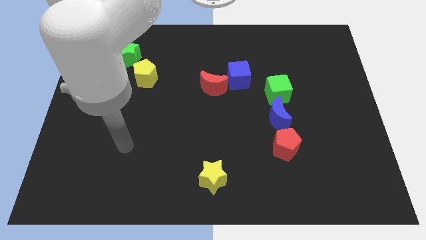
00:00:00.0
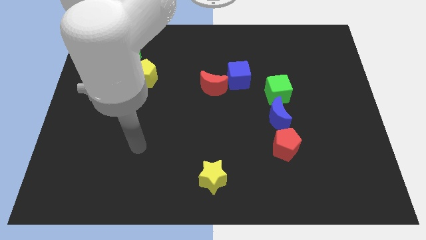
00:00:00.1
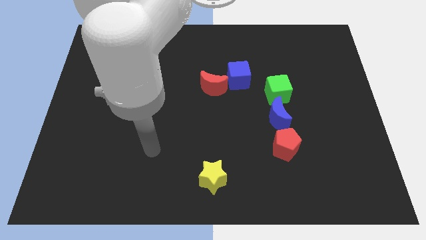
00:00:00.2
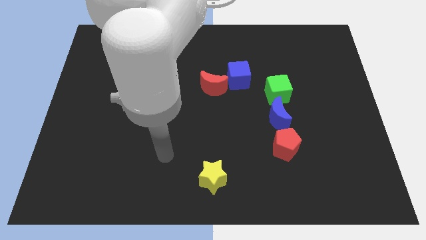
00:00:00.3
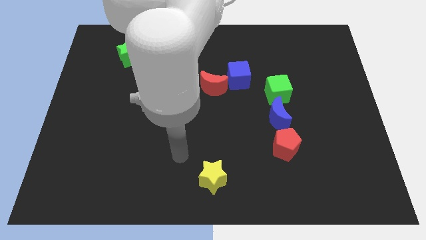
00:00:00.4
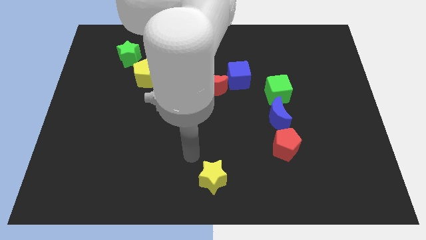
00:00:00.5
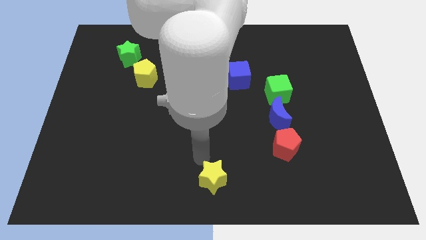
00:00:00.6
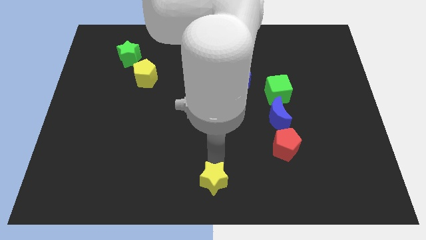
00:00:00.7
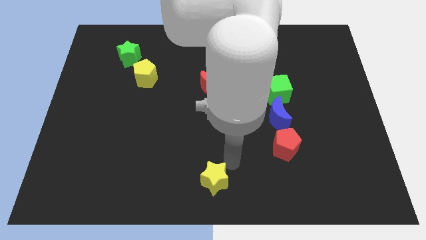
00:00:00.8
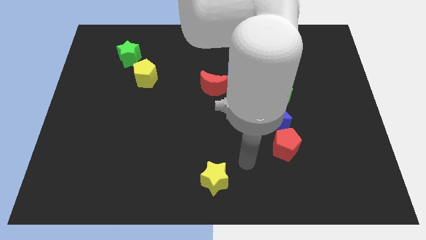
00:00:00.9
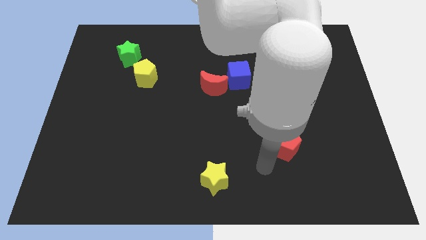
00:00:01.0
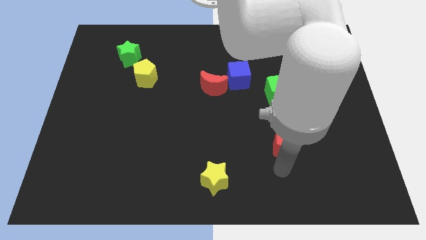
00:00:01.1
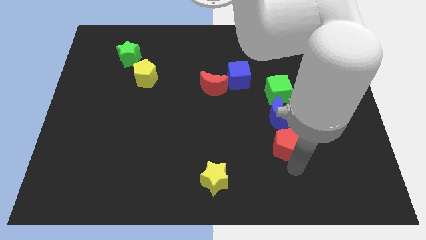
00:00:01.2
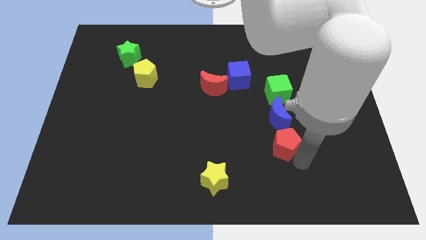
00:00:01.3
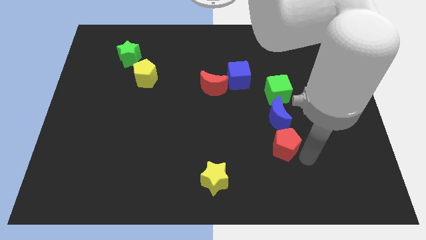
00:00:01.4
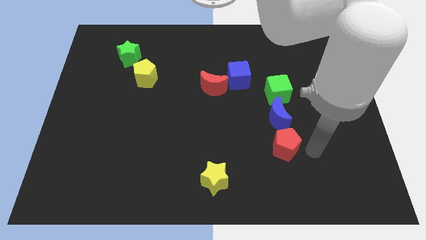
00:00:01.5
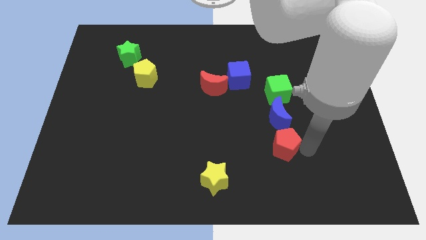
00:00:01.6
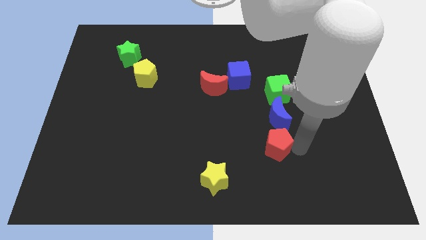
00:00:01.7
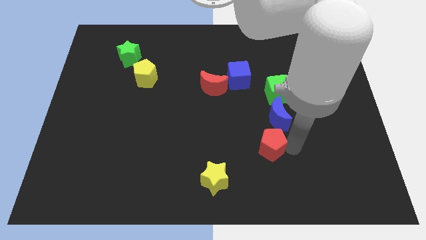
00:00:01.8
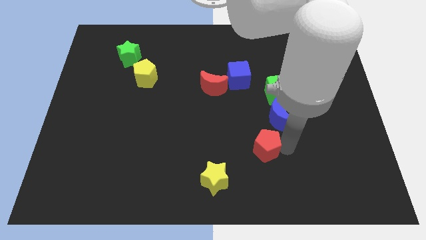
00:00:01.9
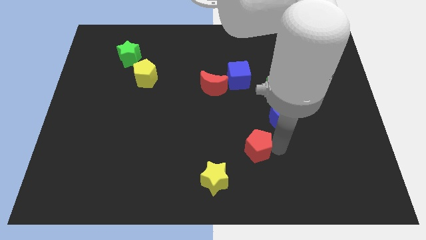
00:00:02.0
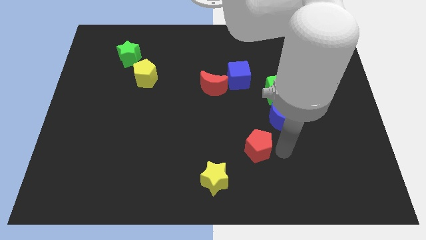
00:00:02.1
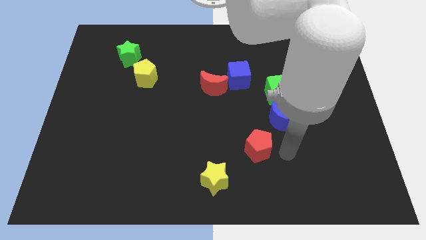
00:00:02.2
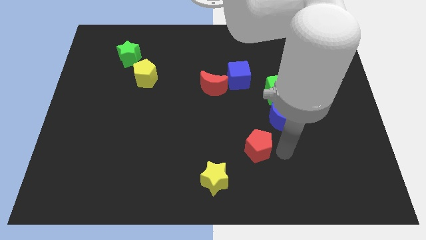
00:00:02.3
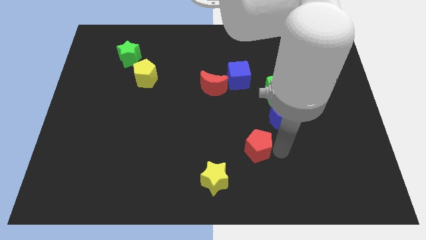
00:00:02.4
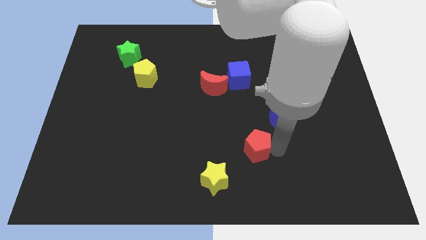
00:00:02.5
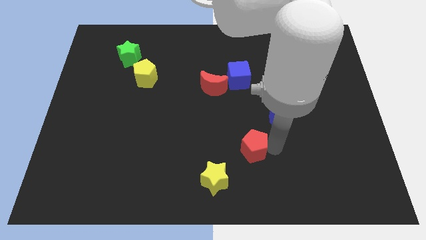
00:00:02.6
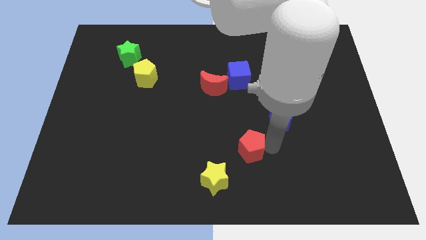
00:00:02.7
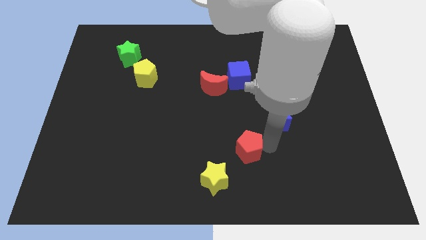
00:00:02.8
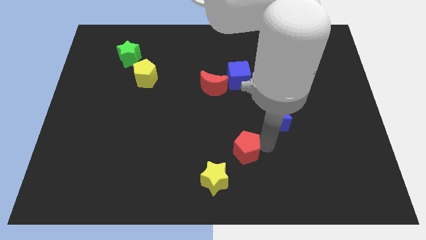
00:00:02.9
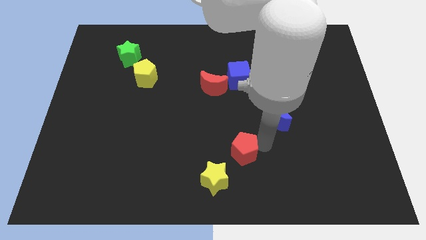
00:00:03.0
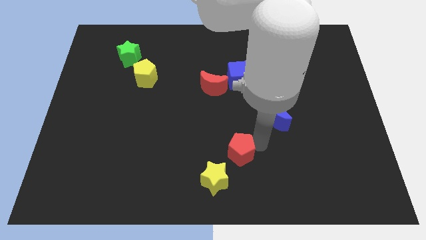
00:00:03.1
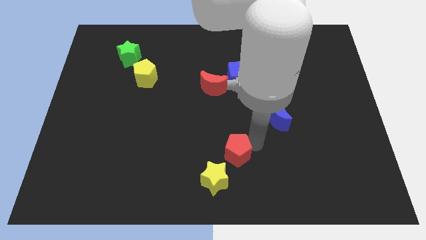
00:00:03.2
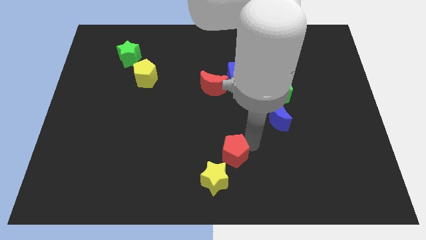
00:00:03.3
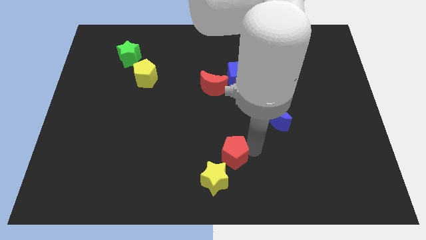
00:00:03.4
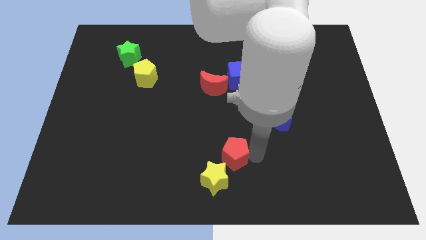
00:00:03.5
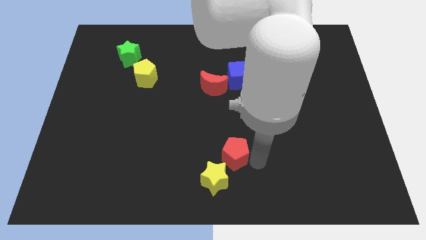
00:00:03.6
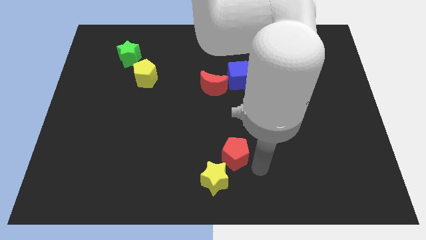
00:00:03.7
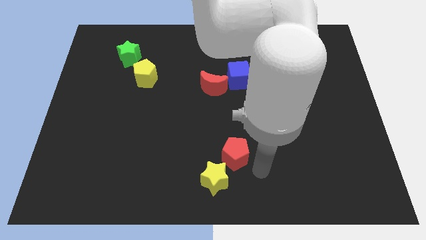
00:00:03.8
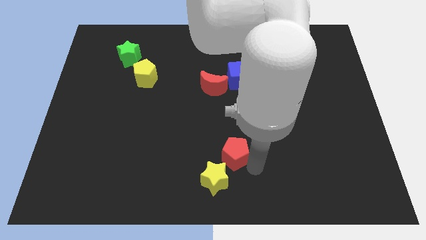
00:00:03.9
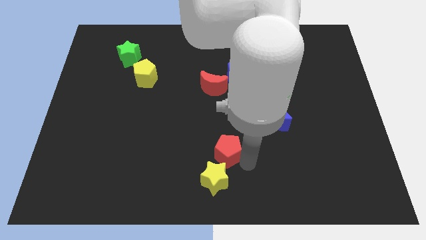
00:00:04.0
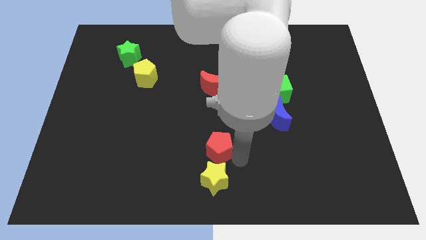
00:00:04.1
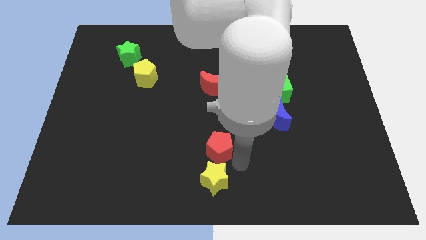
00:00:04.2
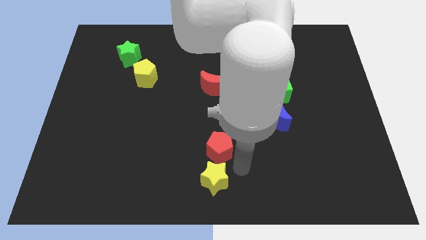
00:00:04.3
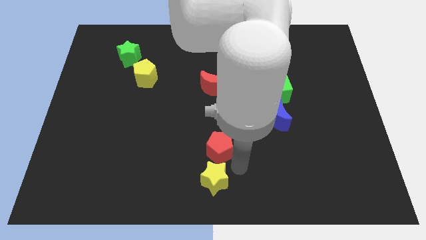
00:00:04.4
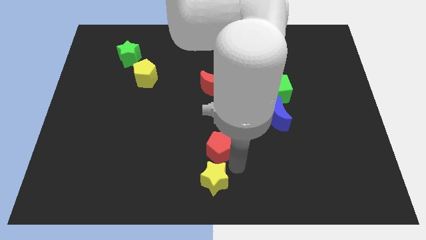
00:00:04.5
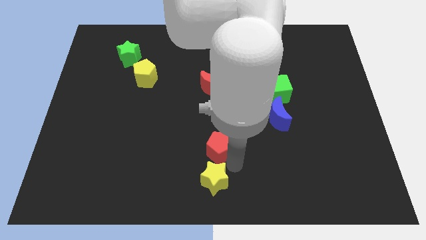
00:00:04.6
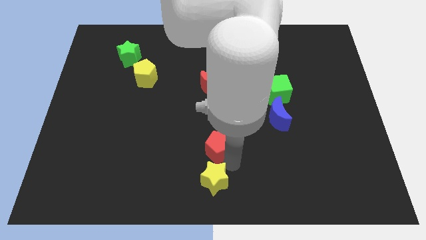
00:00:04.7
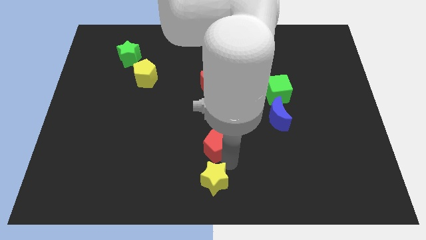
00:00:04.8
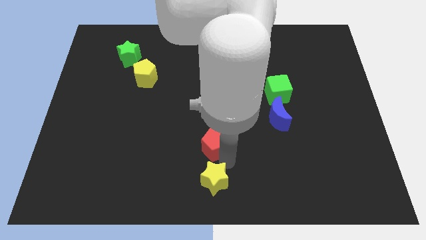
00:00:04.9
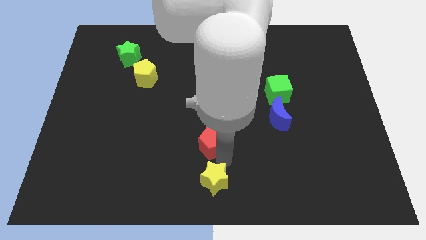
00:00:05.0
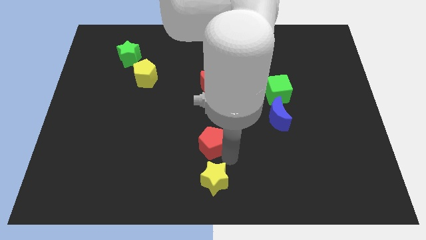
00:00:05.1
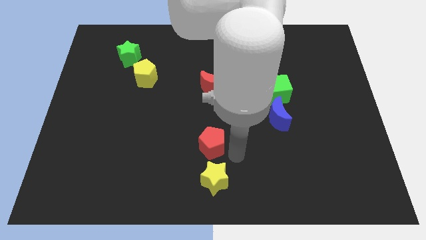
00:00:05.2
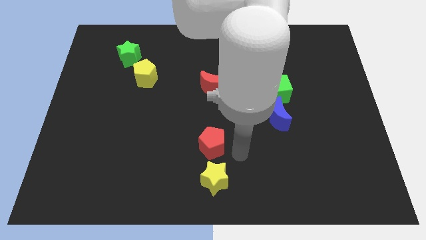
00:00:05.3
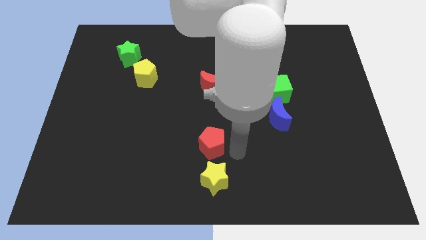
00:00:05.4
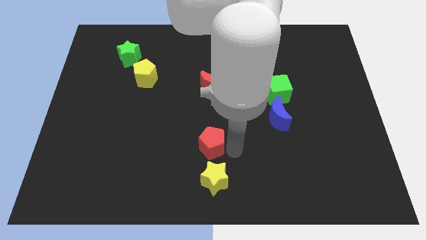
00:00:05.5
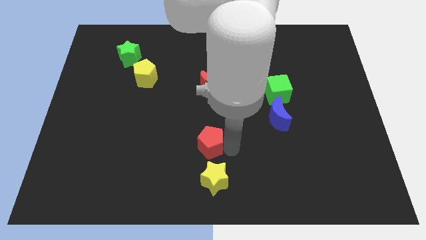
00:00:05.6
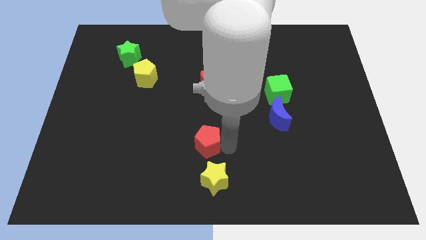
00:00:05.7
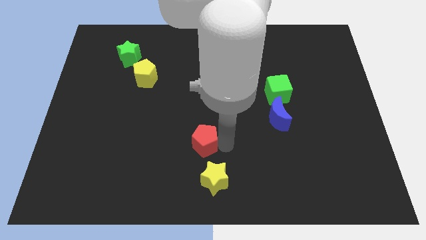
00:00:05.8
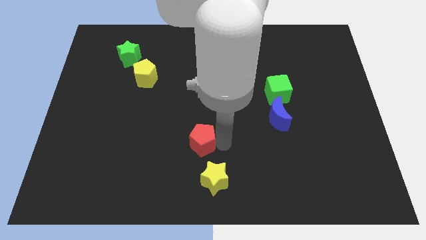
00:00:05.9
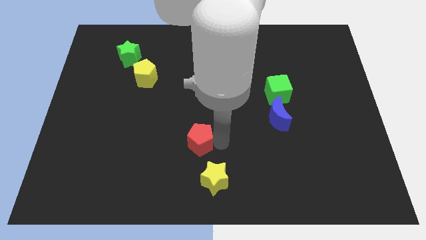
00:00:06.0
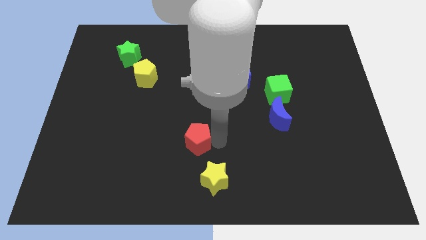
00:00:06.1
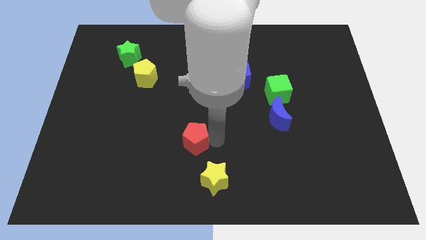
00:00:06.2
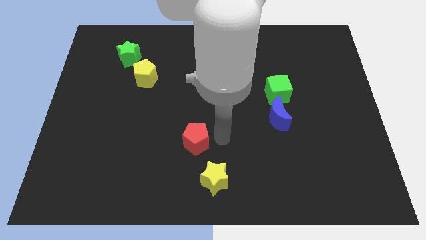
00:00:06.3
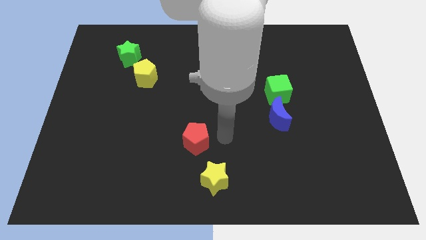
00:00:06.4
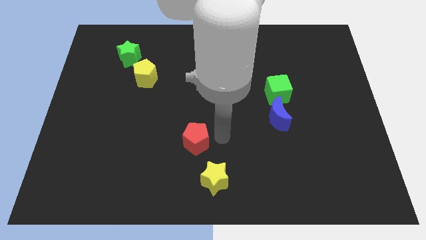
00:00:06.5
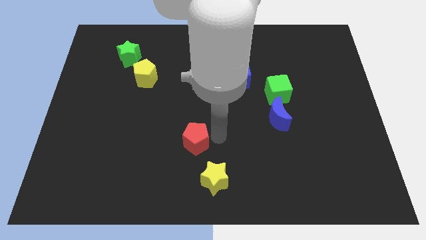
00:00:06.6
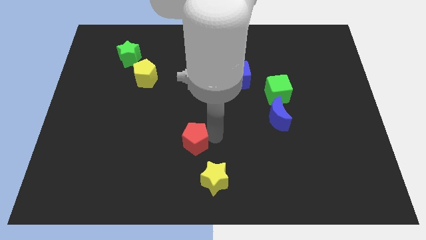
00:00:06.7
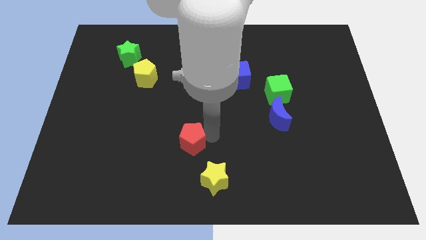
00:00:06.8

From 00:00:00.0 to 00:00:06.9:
move the red pentagon to the left

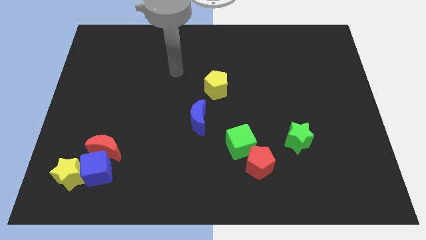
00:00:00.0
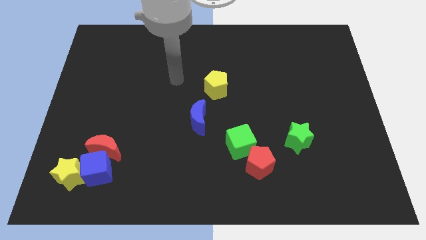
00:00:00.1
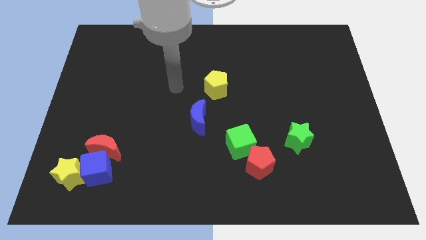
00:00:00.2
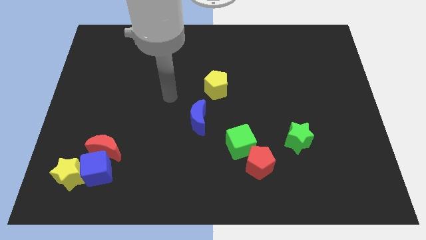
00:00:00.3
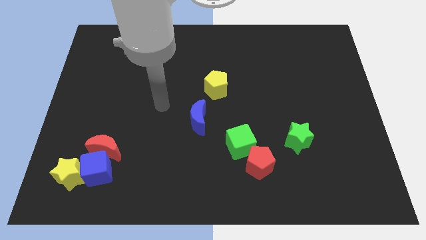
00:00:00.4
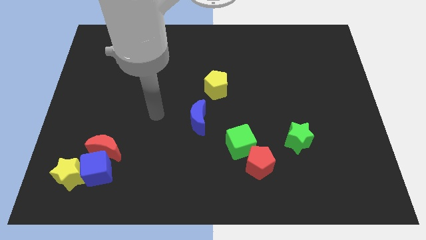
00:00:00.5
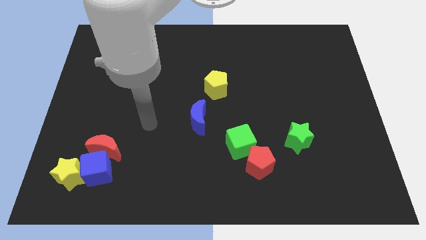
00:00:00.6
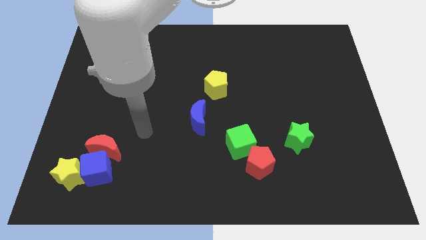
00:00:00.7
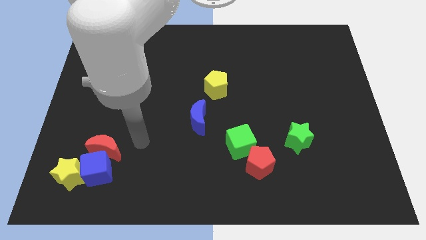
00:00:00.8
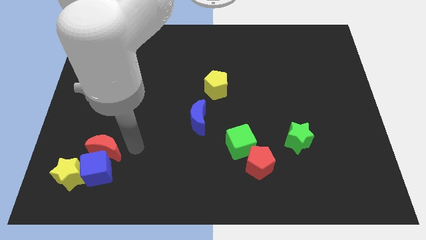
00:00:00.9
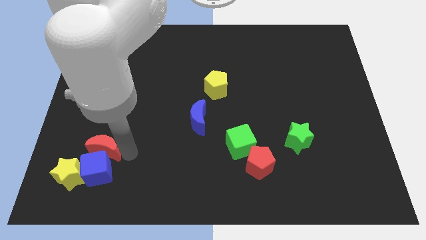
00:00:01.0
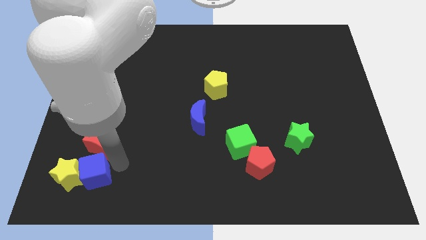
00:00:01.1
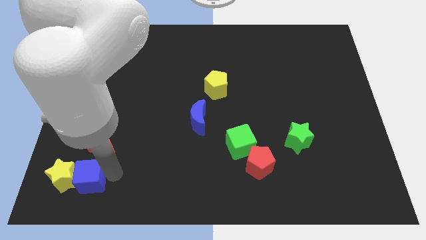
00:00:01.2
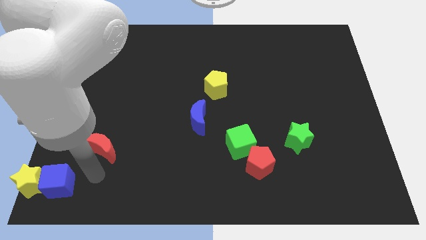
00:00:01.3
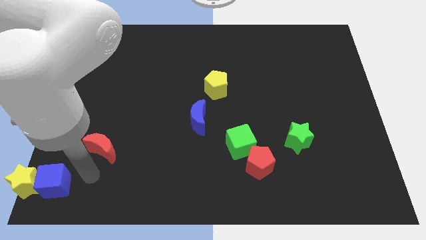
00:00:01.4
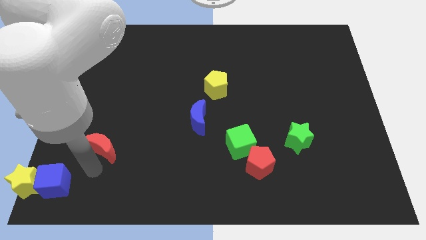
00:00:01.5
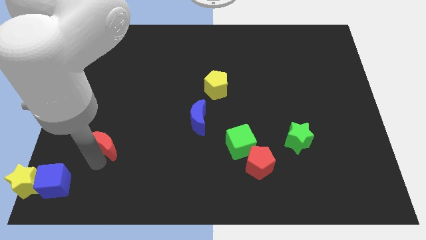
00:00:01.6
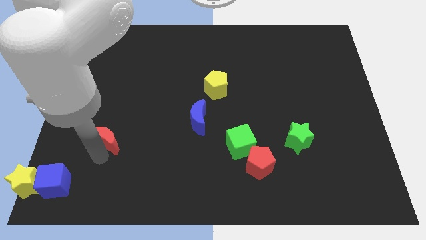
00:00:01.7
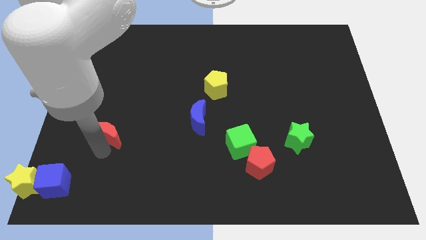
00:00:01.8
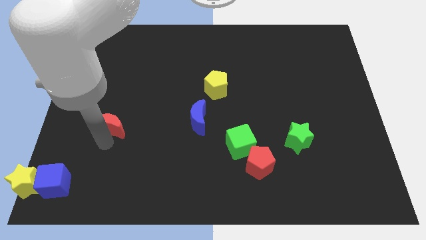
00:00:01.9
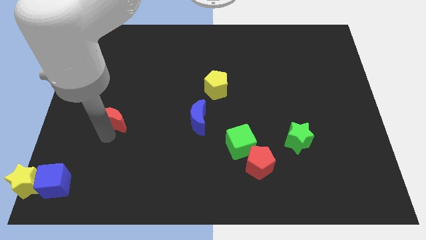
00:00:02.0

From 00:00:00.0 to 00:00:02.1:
slightly slide the red moon upwards
